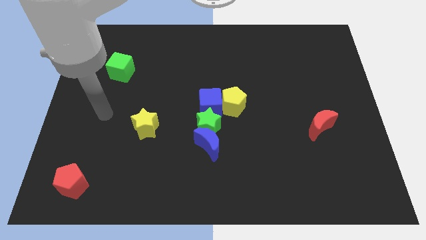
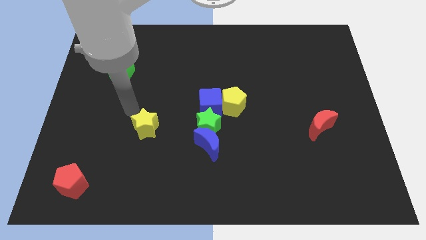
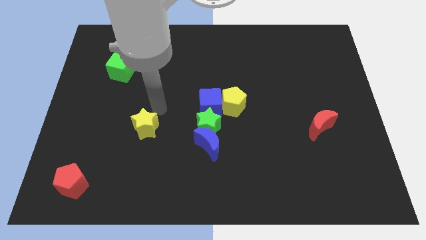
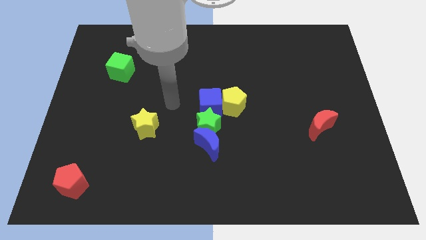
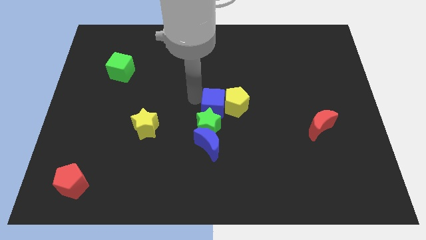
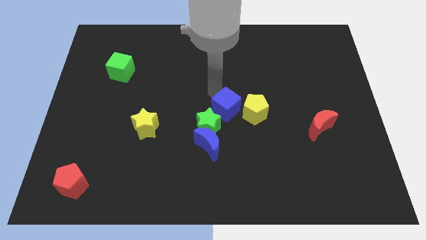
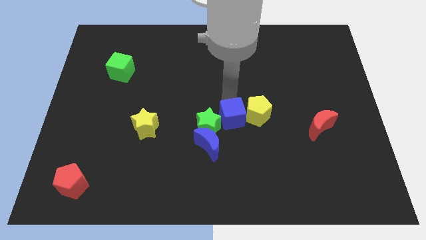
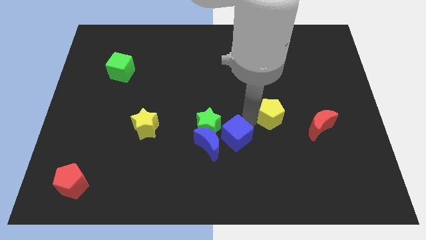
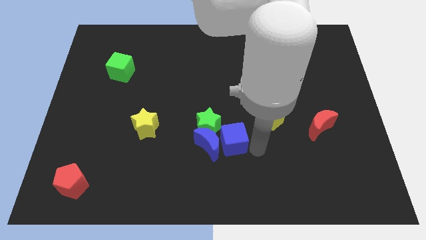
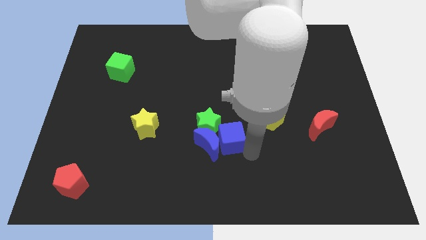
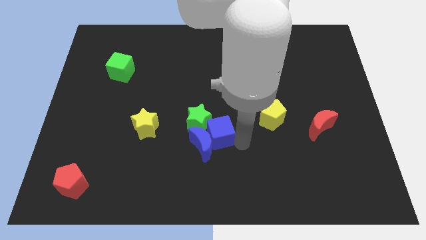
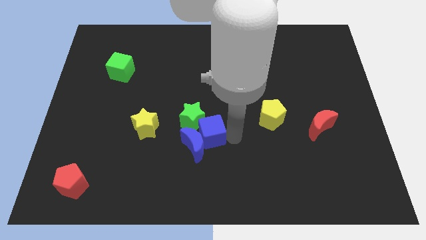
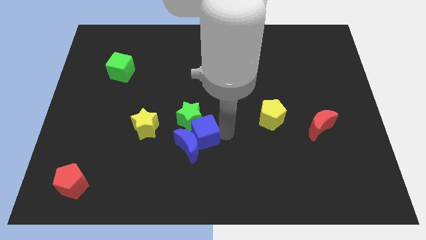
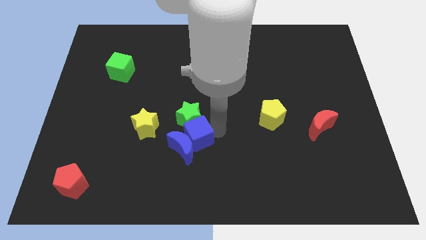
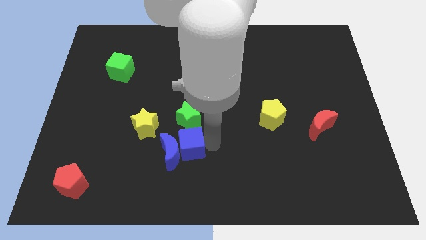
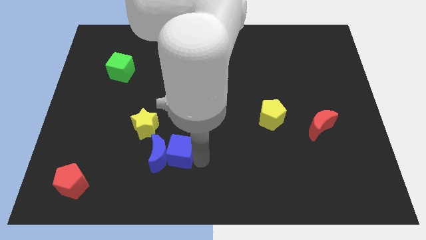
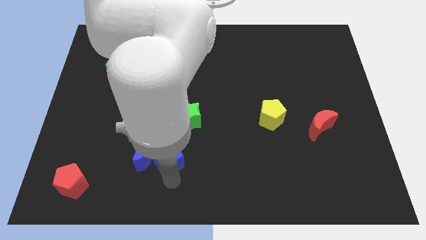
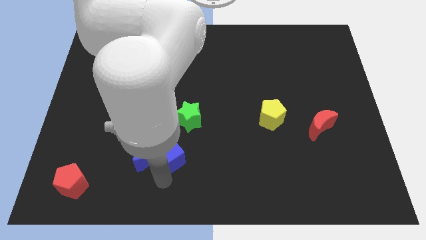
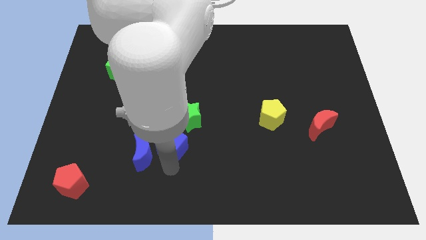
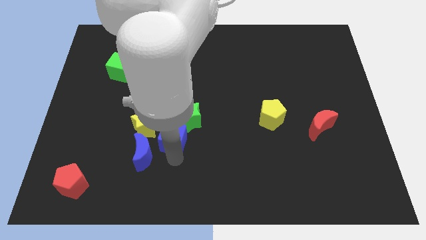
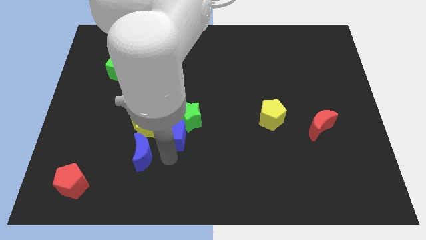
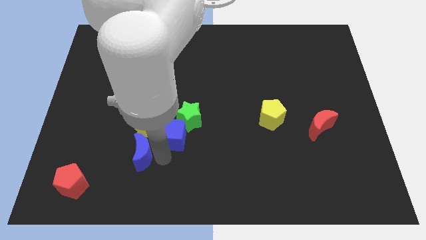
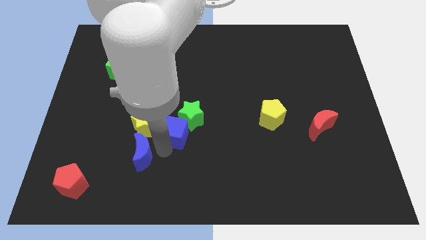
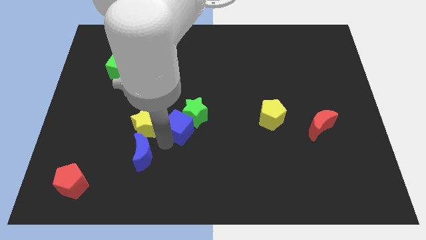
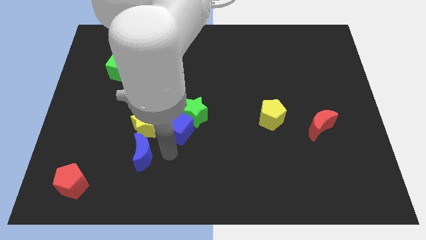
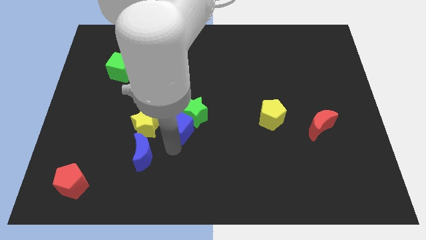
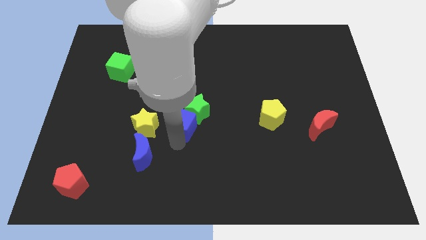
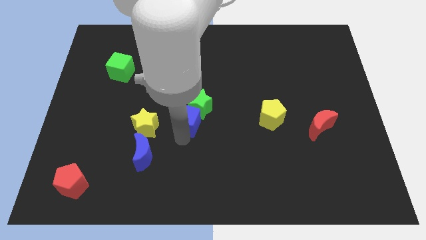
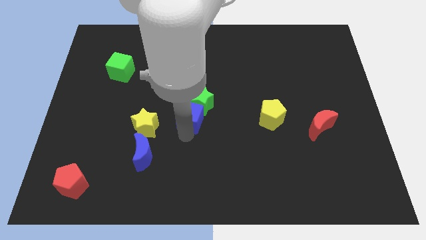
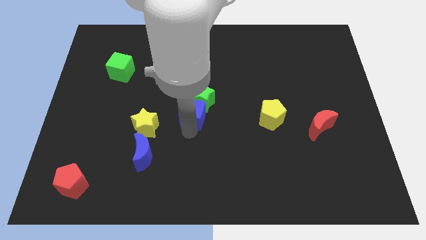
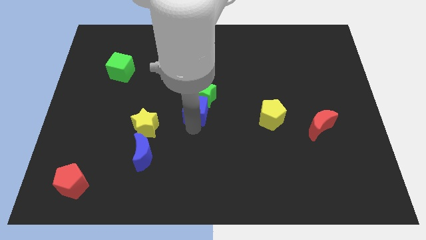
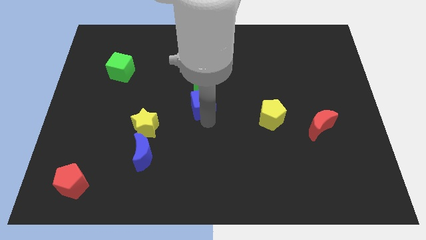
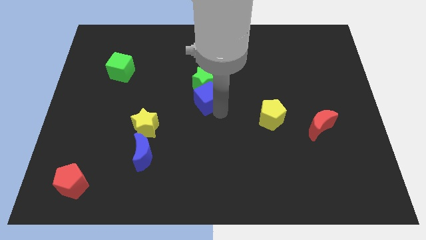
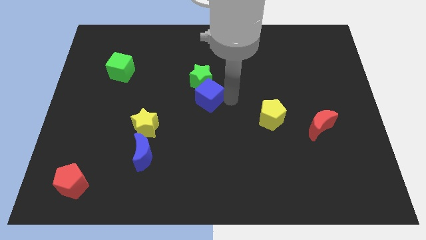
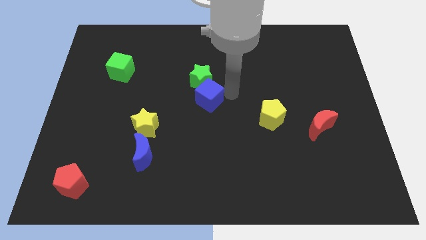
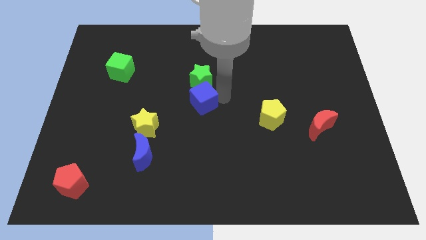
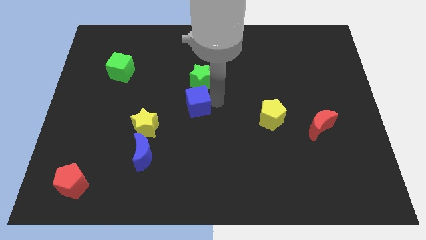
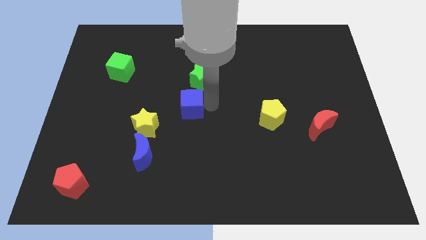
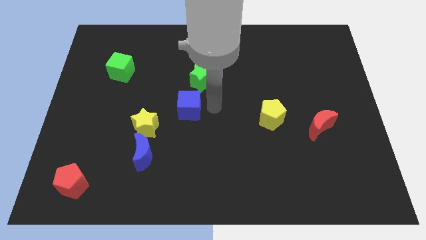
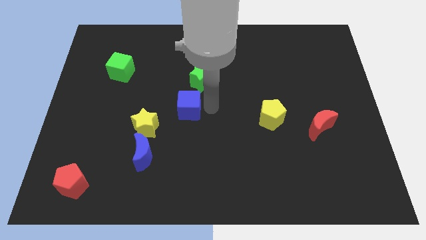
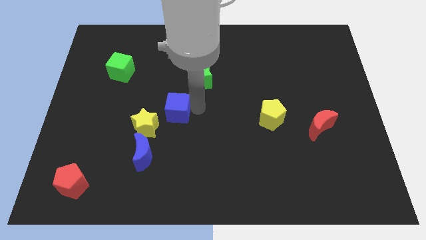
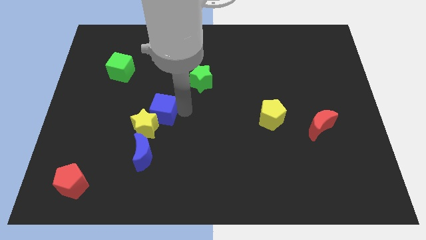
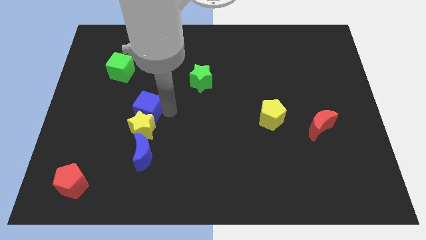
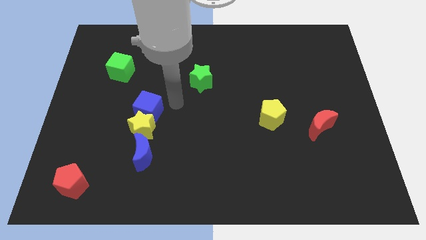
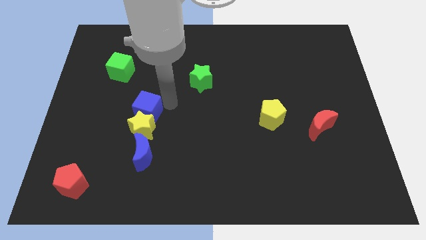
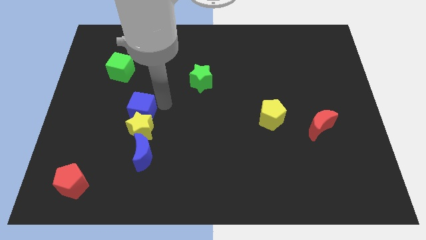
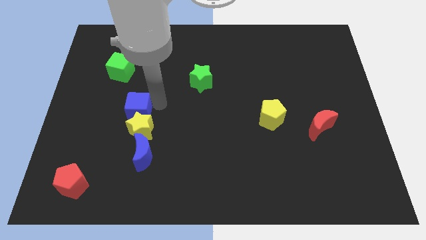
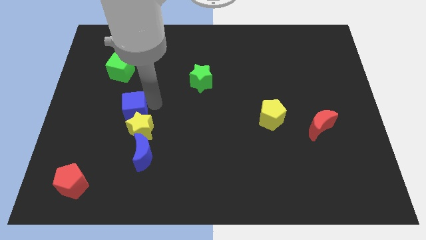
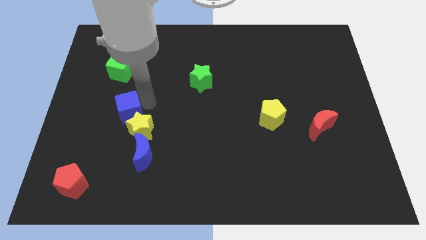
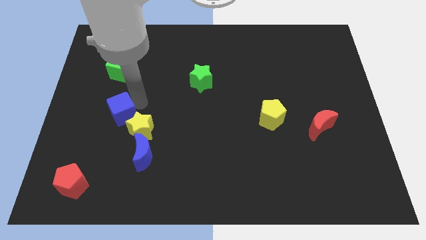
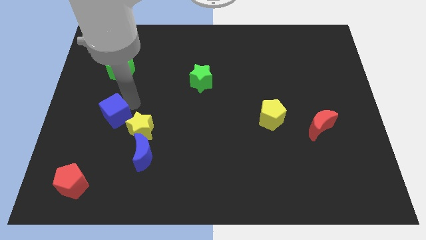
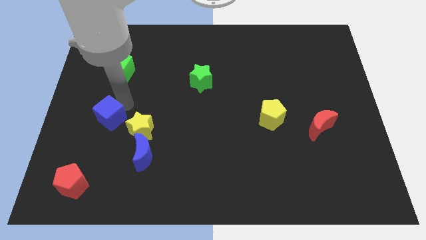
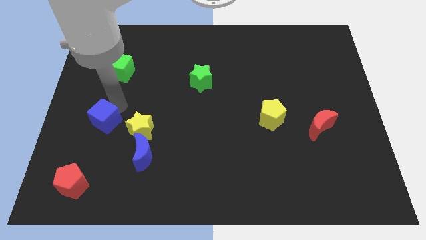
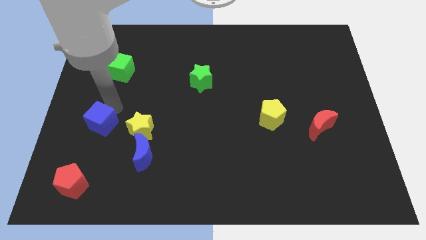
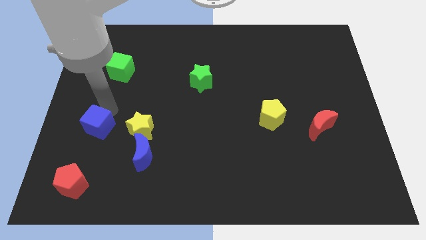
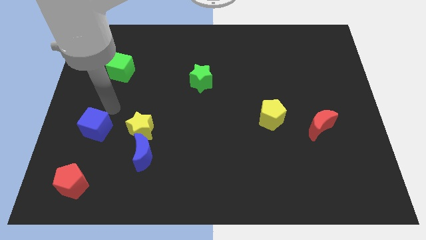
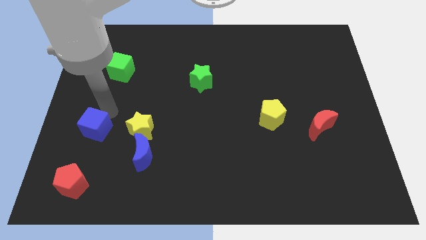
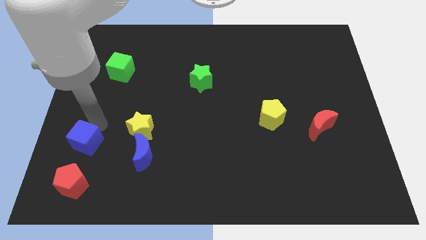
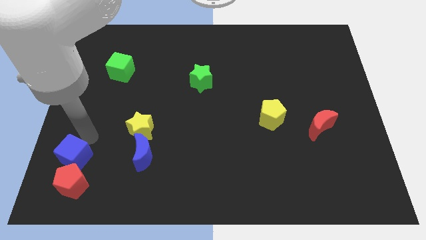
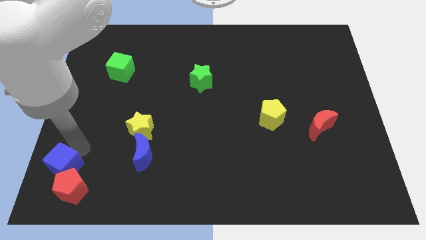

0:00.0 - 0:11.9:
put the blue cube to the lower left corner
